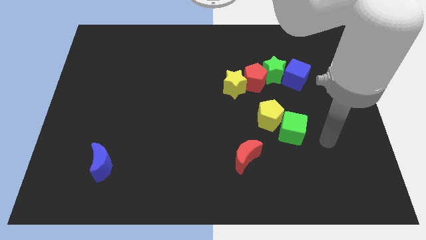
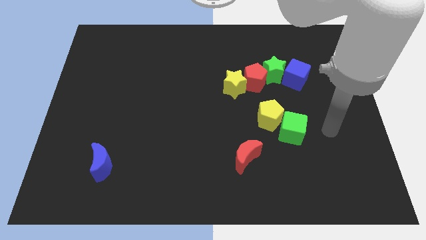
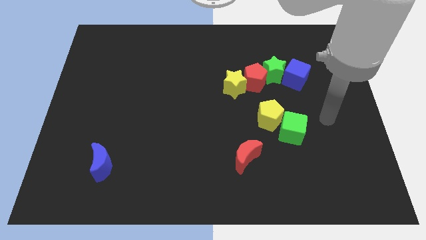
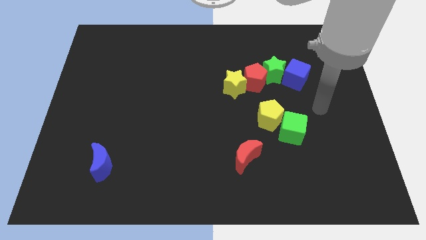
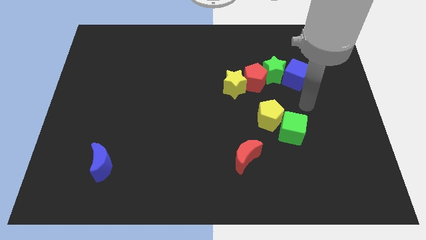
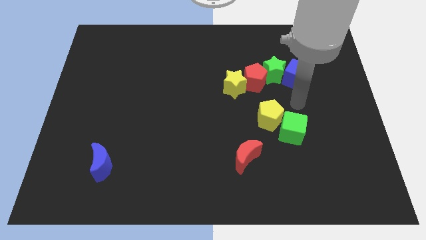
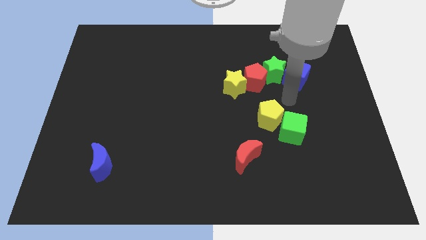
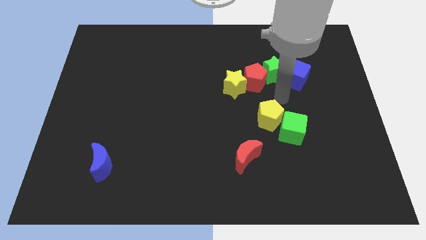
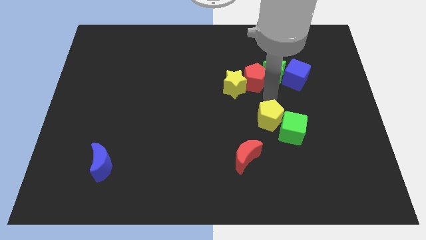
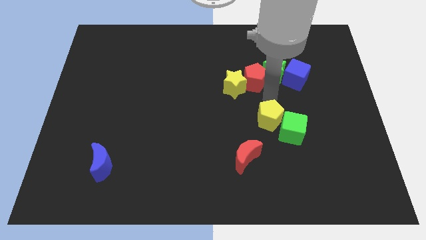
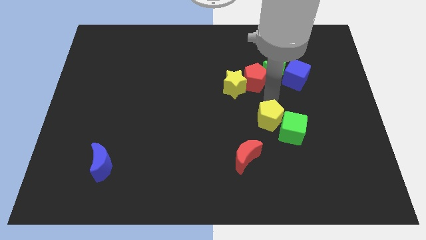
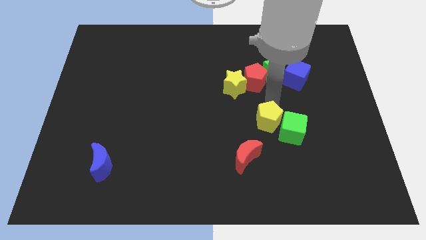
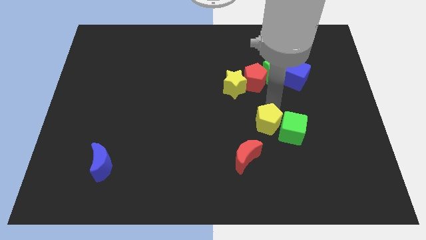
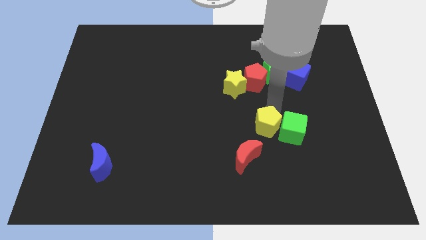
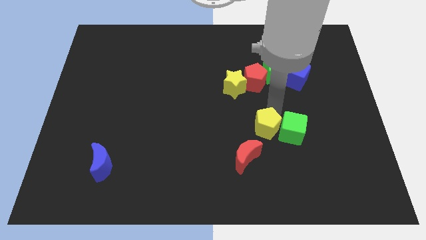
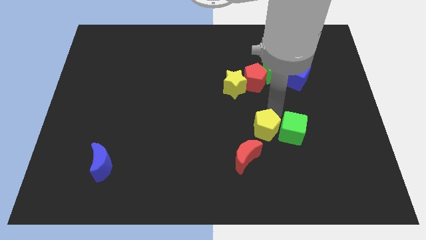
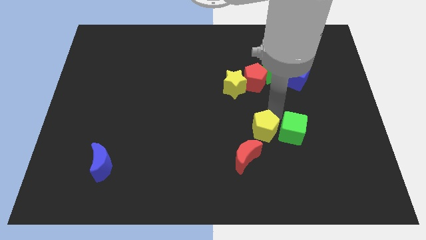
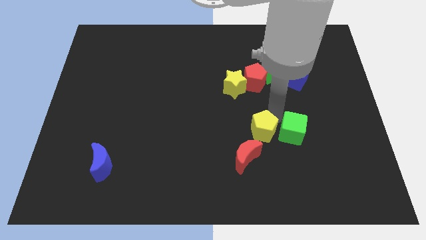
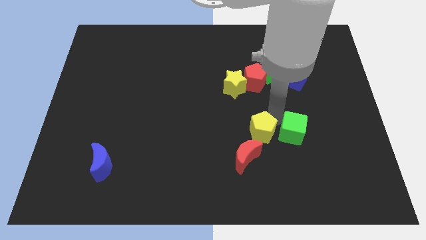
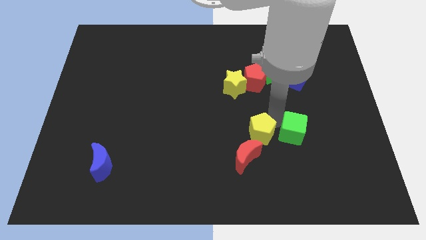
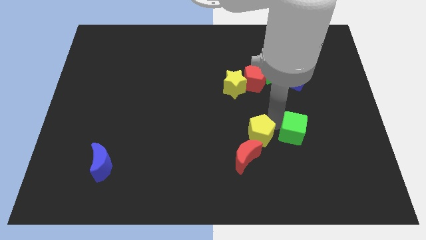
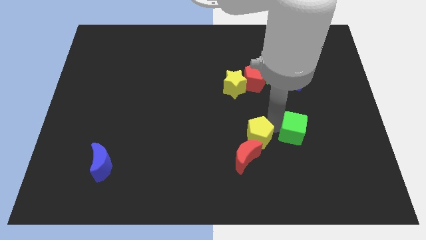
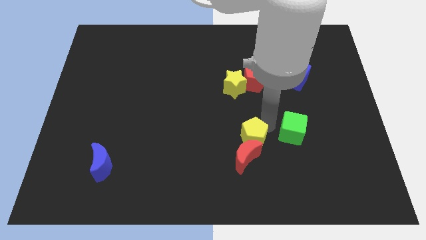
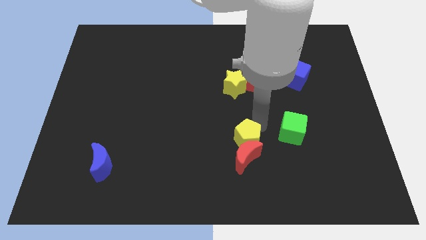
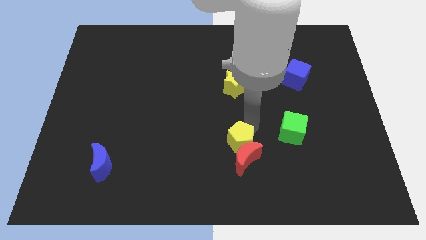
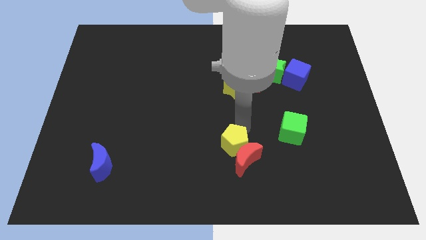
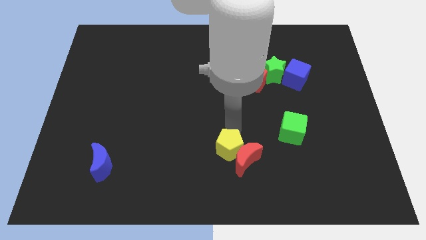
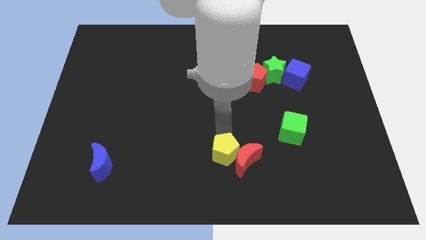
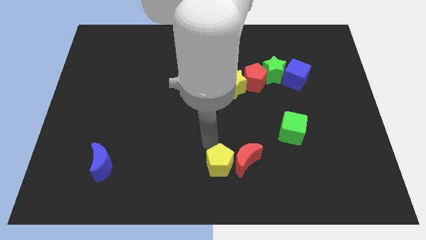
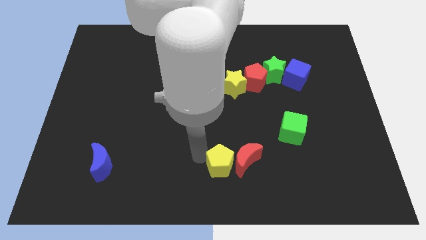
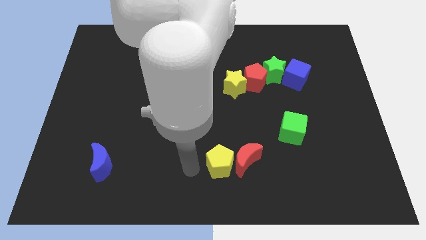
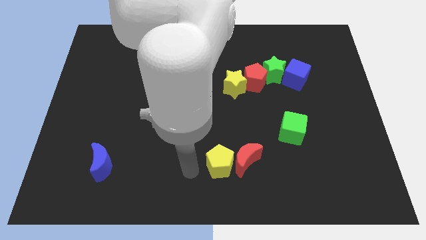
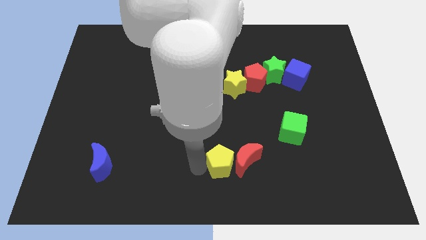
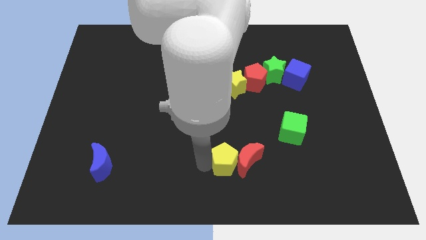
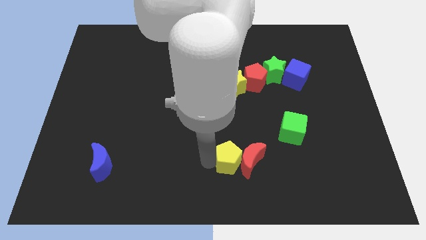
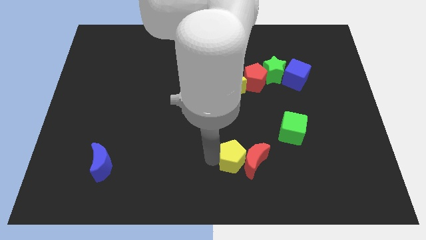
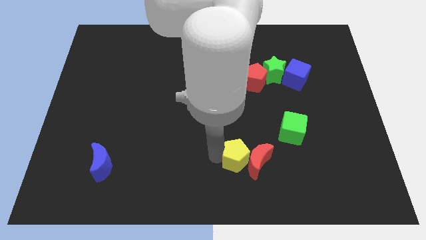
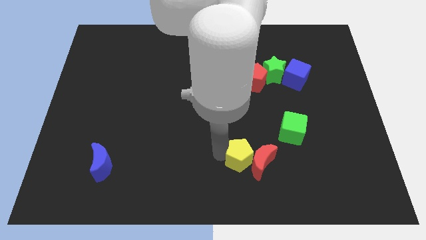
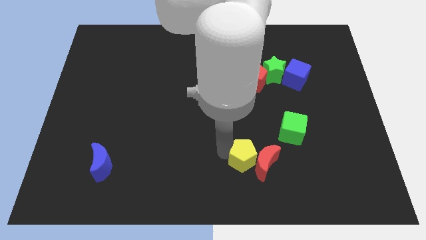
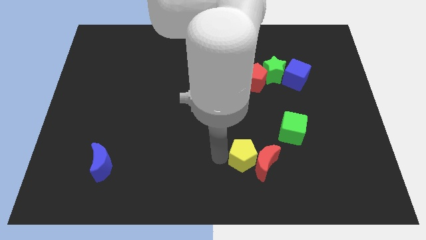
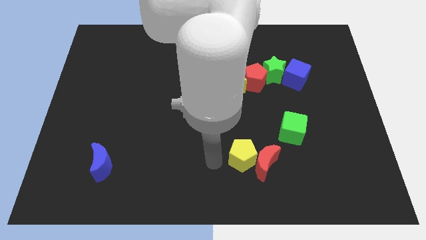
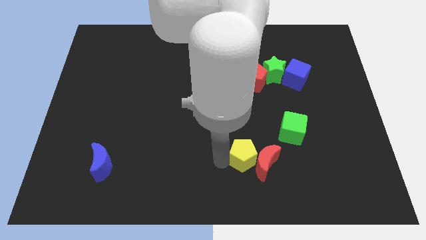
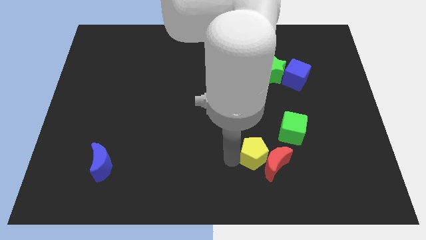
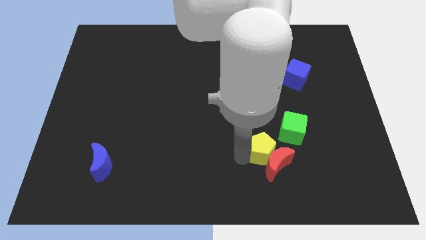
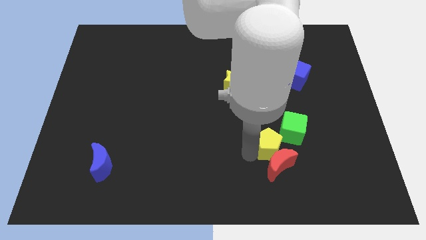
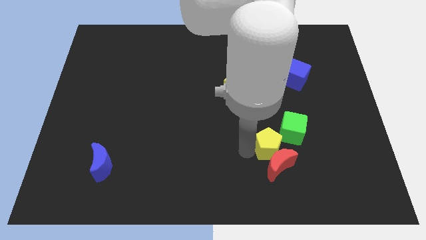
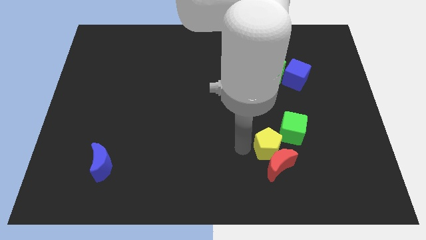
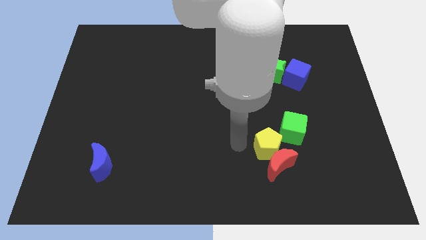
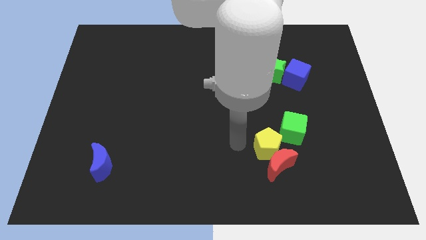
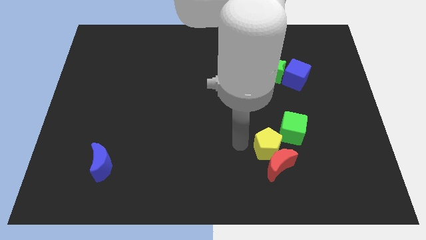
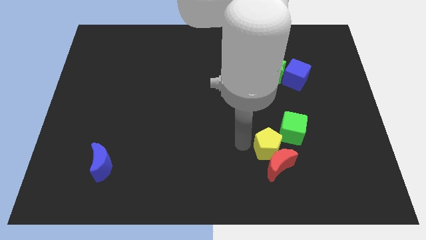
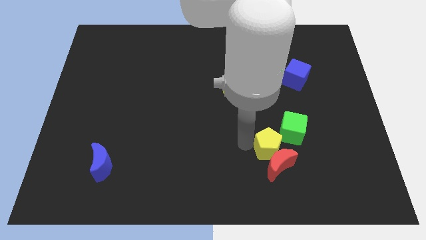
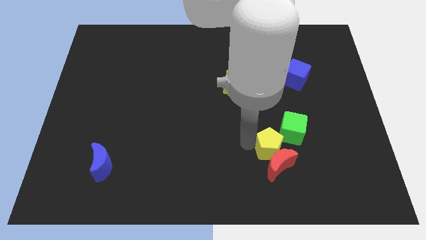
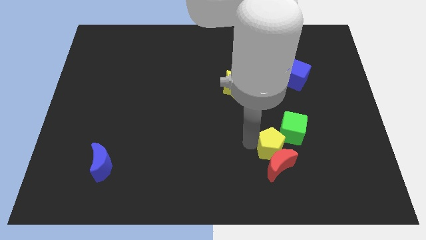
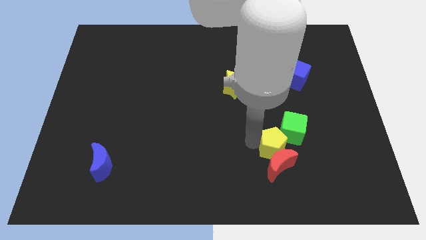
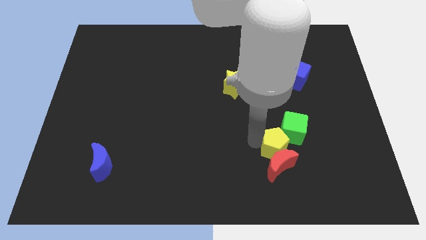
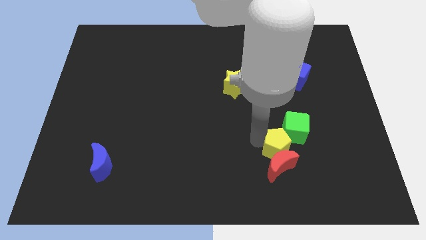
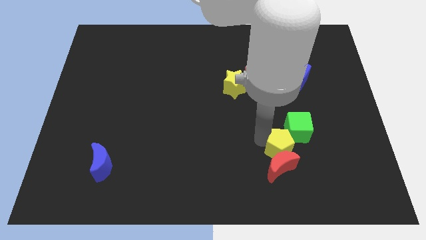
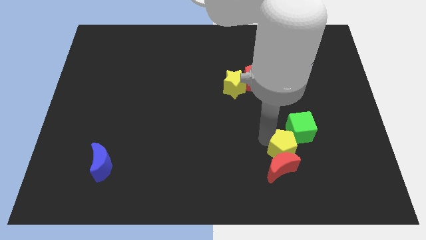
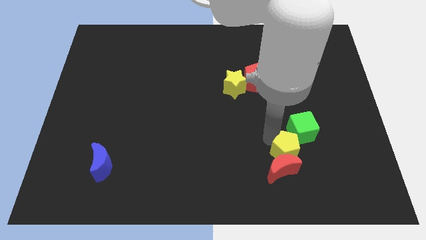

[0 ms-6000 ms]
move the yellow pentagon slightly down and to the right

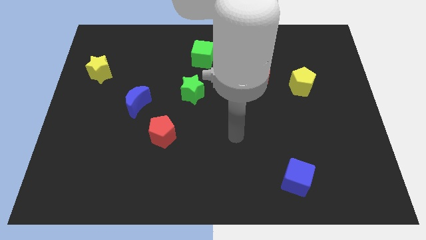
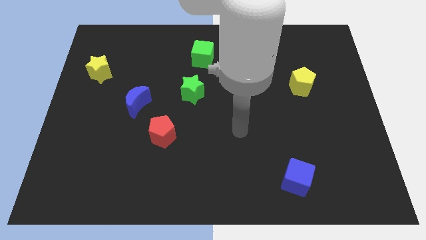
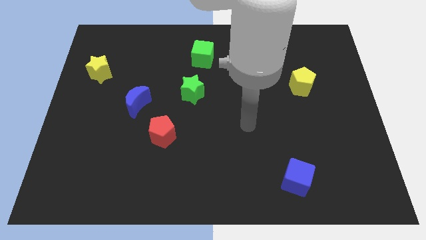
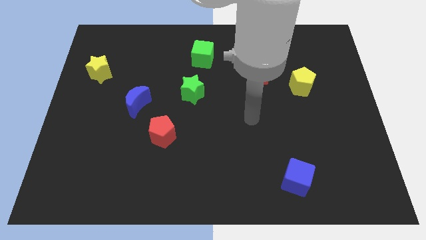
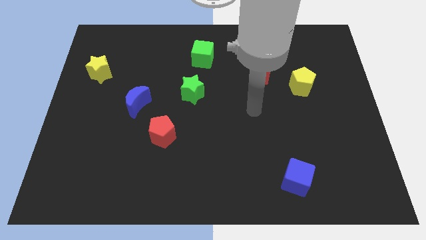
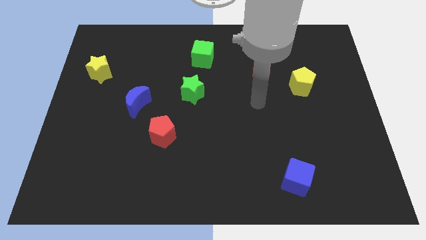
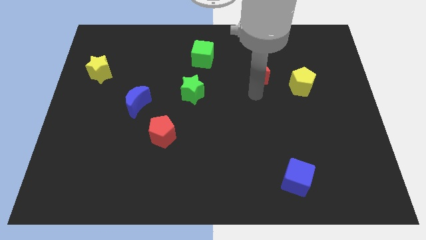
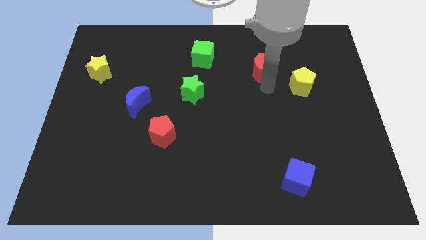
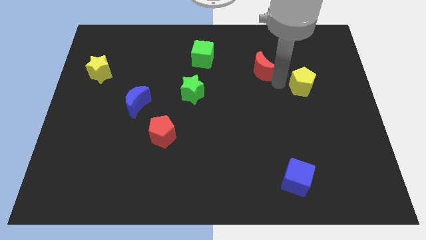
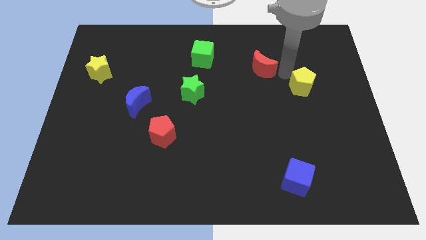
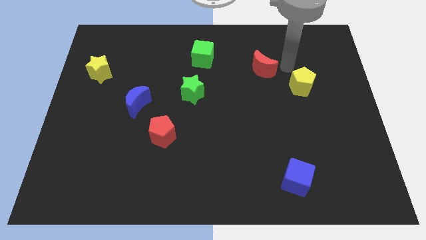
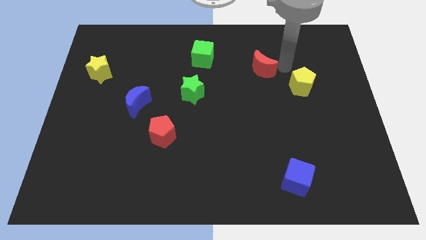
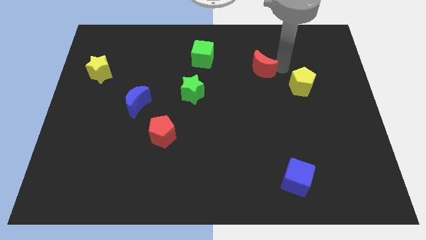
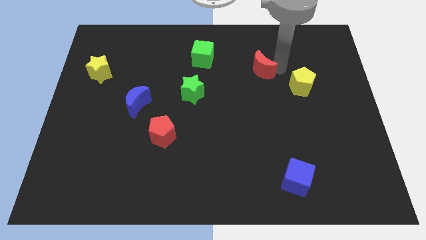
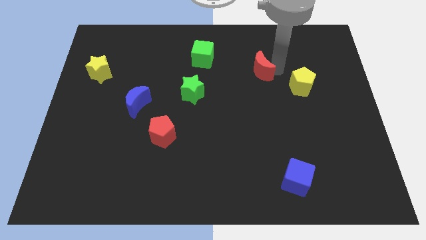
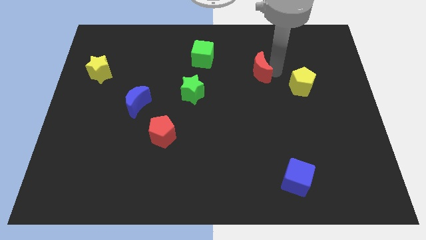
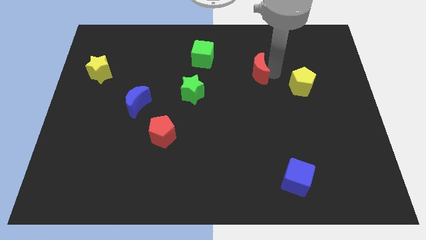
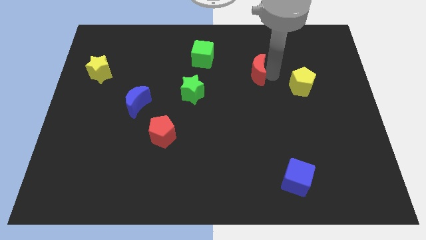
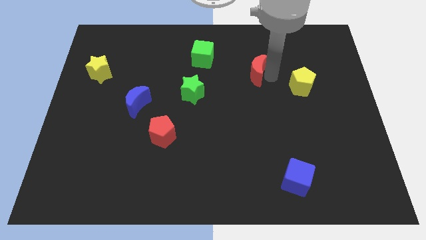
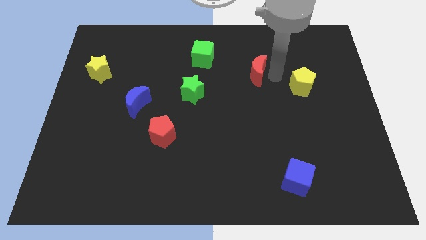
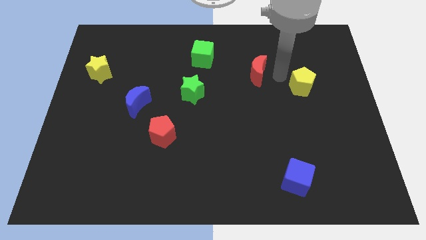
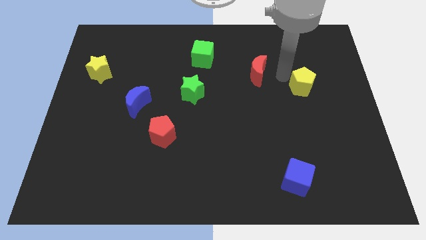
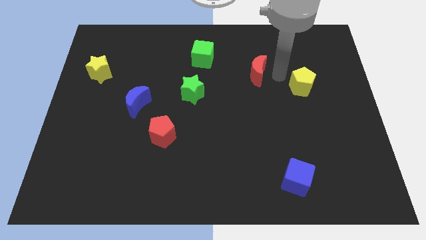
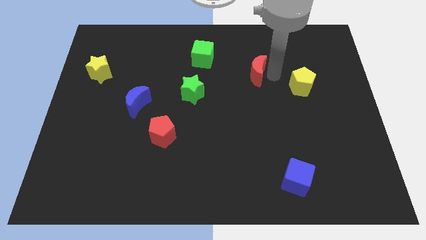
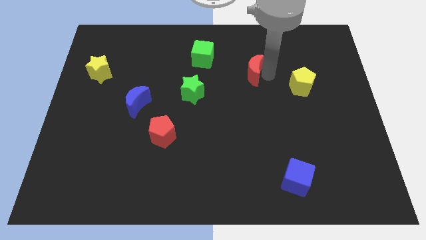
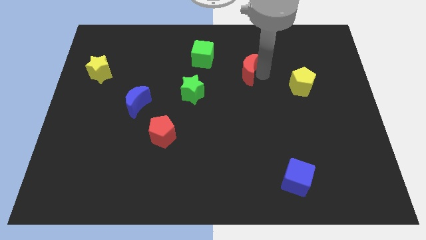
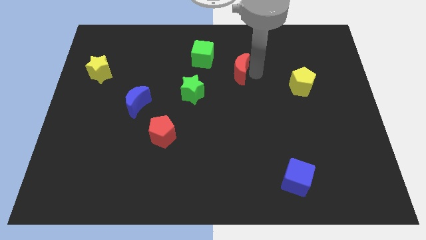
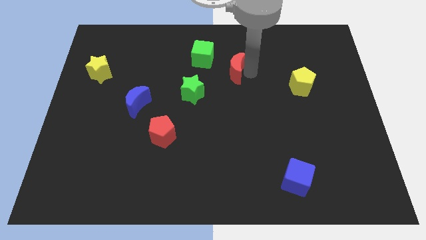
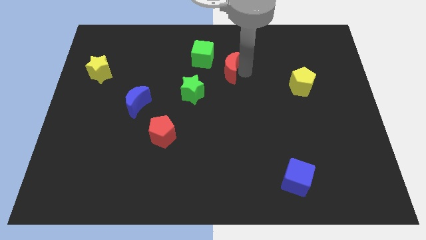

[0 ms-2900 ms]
slide the red moon to the left a little bit
